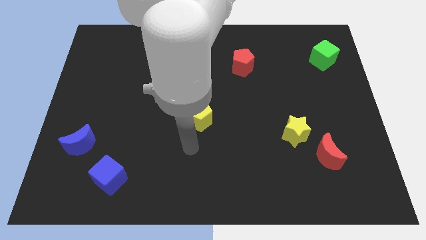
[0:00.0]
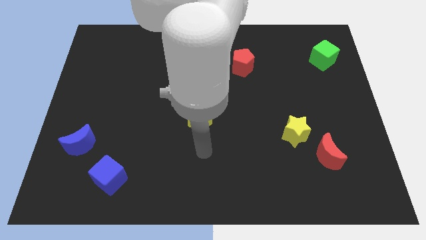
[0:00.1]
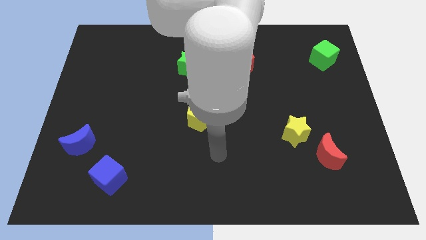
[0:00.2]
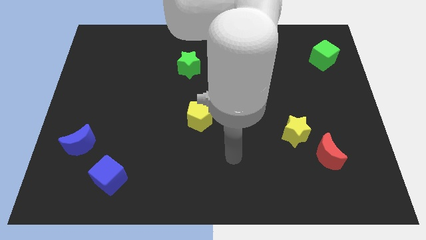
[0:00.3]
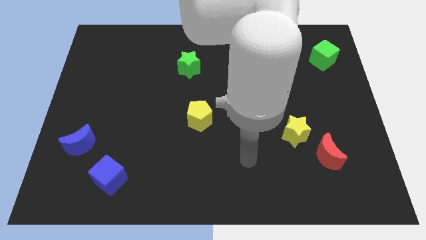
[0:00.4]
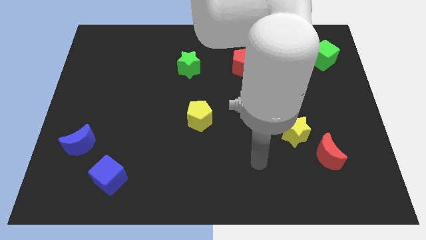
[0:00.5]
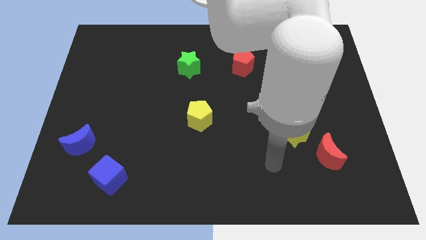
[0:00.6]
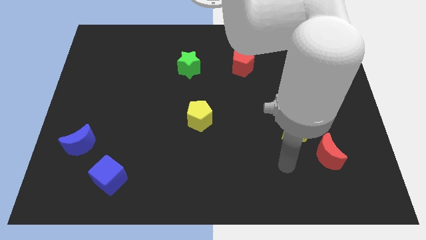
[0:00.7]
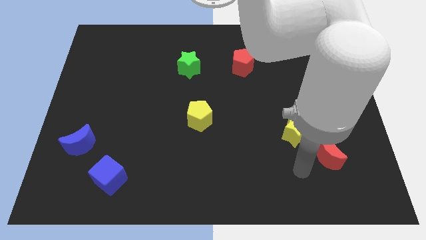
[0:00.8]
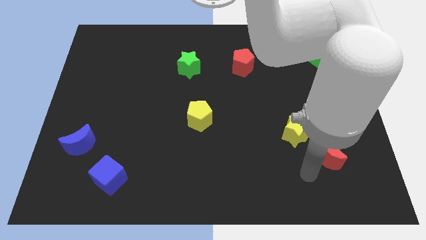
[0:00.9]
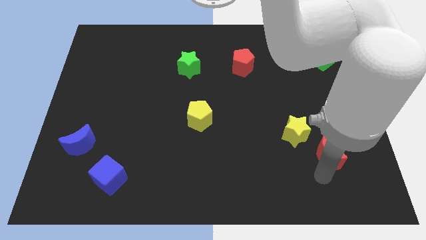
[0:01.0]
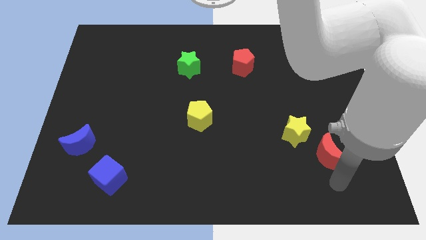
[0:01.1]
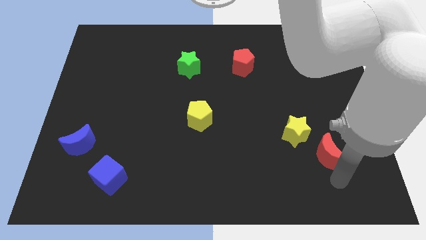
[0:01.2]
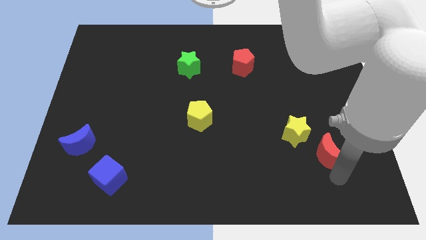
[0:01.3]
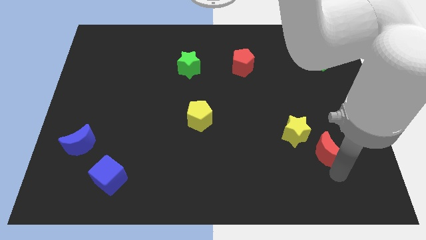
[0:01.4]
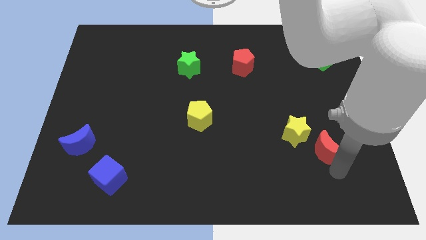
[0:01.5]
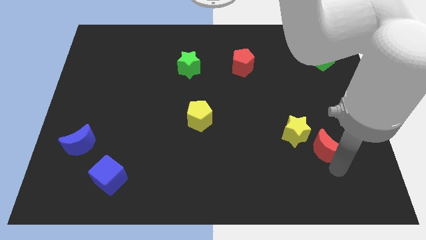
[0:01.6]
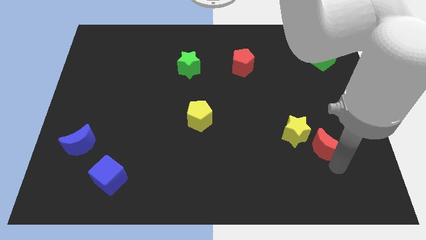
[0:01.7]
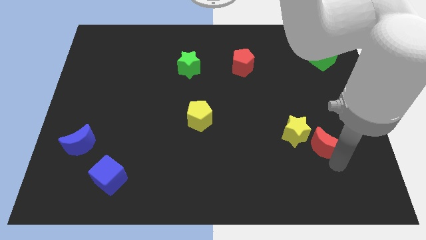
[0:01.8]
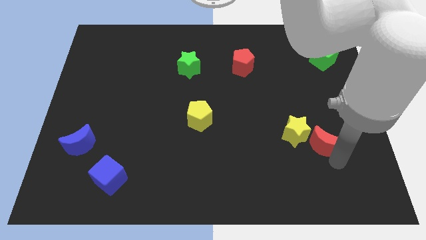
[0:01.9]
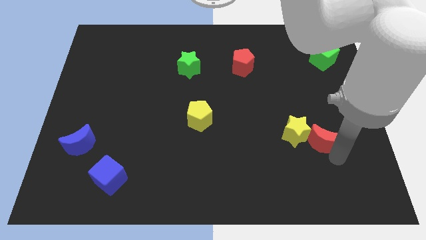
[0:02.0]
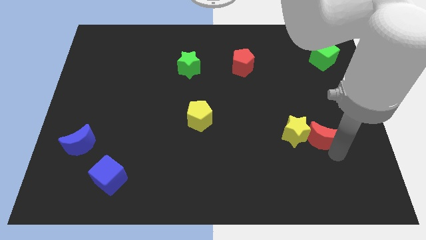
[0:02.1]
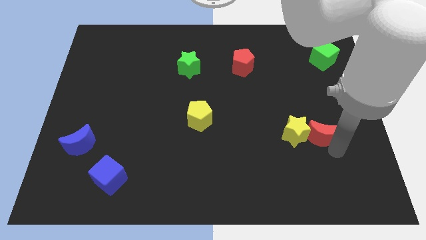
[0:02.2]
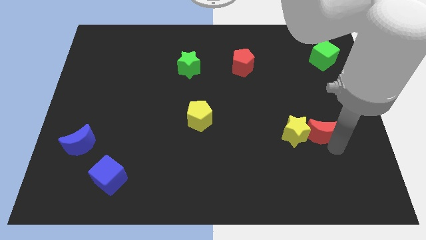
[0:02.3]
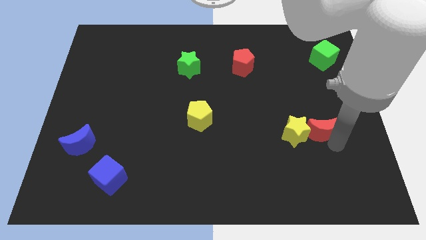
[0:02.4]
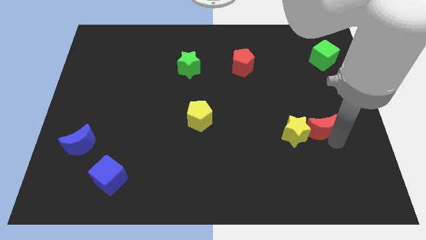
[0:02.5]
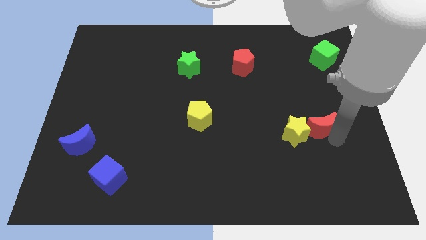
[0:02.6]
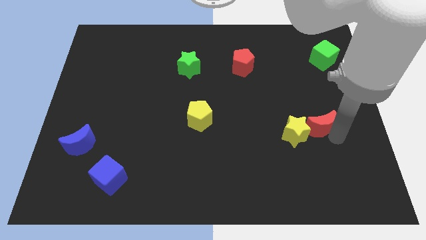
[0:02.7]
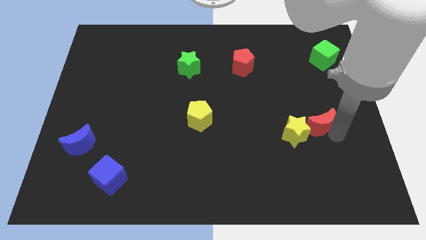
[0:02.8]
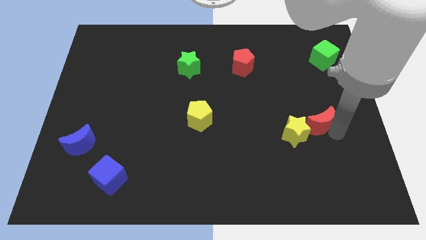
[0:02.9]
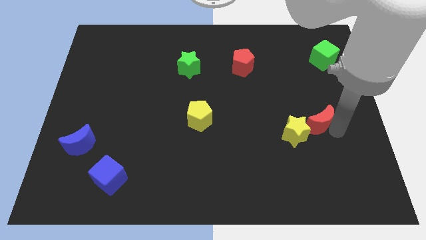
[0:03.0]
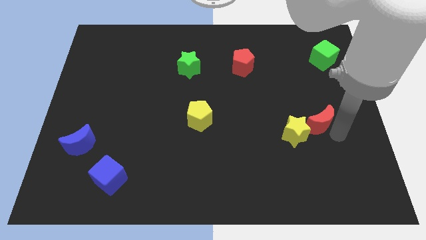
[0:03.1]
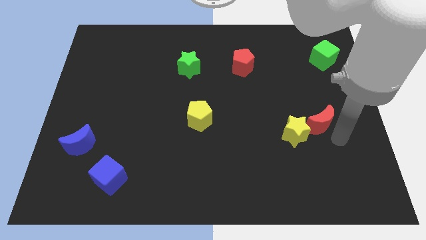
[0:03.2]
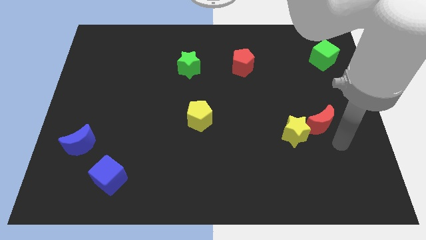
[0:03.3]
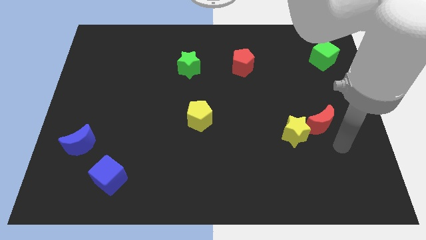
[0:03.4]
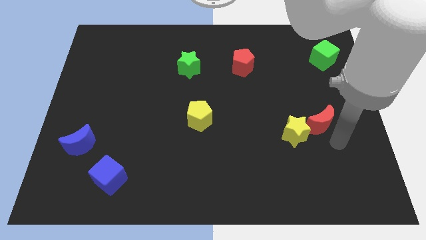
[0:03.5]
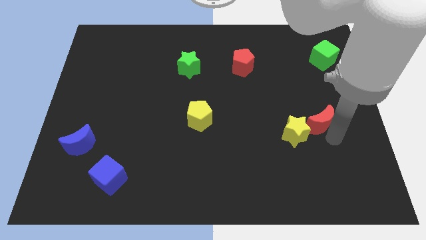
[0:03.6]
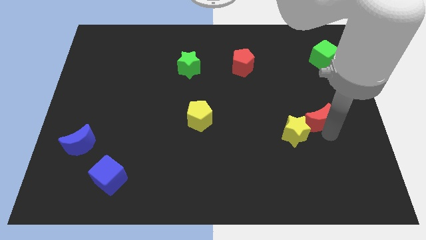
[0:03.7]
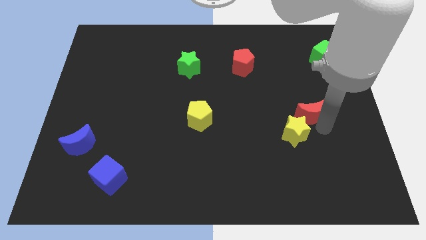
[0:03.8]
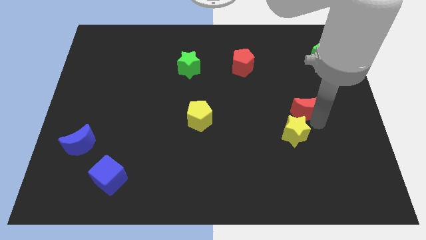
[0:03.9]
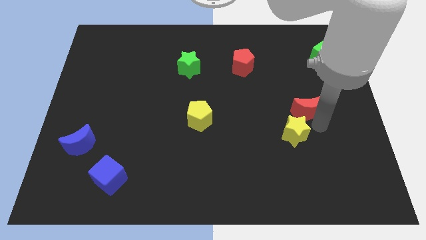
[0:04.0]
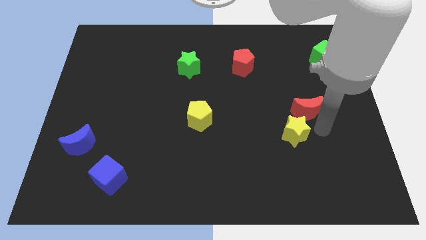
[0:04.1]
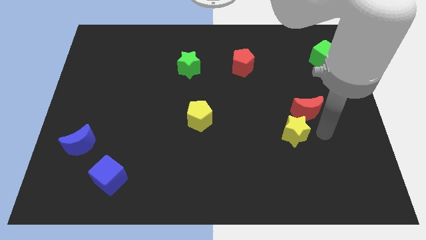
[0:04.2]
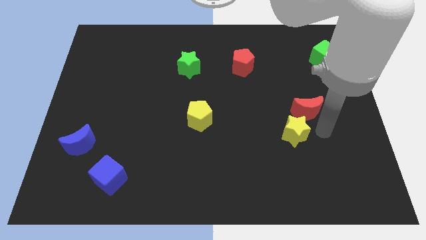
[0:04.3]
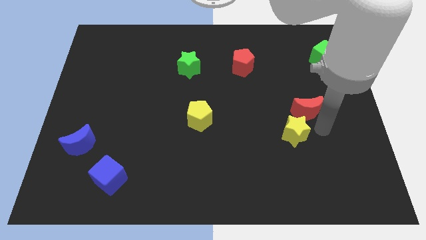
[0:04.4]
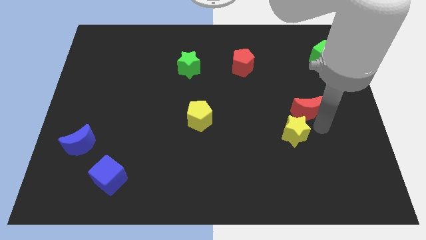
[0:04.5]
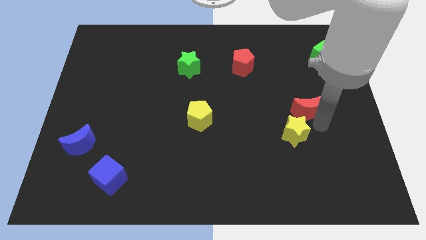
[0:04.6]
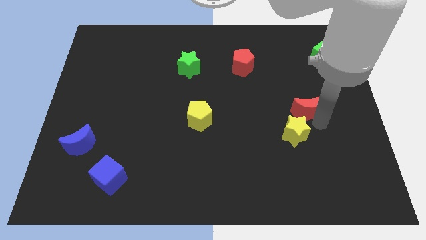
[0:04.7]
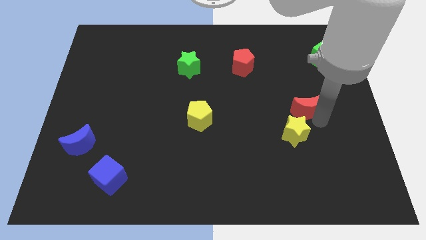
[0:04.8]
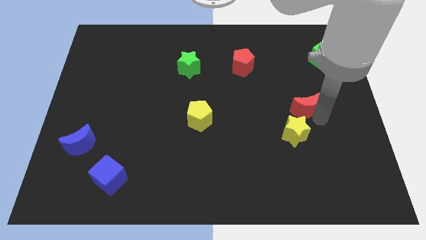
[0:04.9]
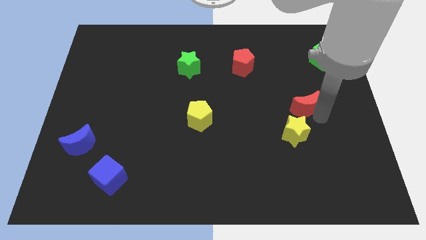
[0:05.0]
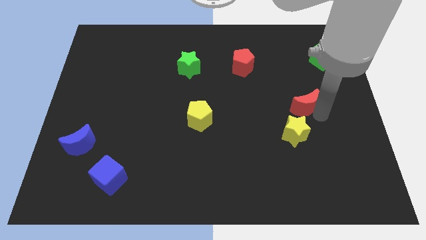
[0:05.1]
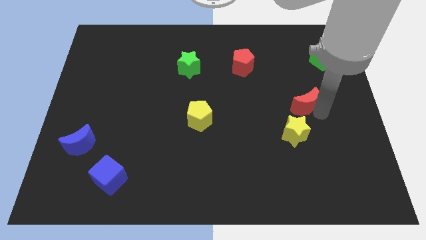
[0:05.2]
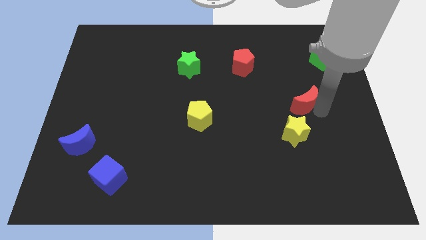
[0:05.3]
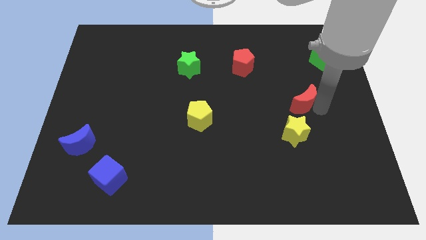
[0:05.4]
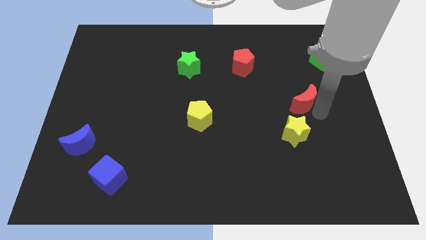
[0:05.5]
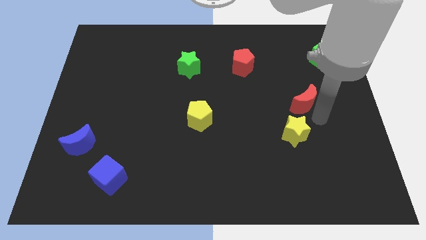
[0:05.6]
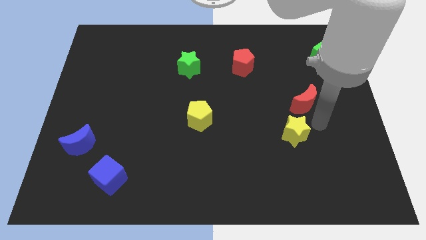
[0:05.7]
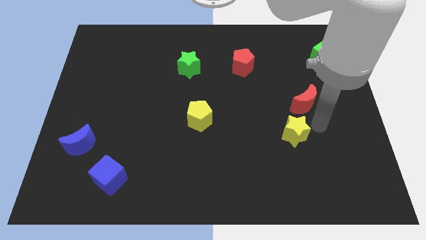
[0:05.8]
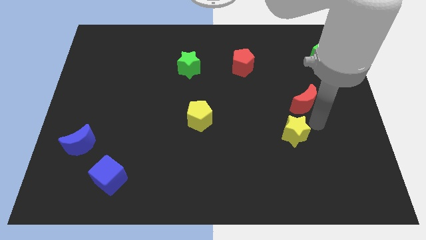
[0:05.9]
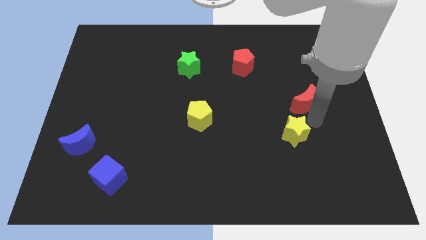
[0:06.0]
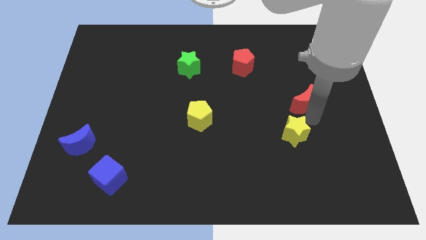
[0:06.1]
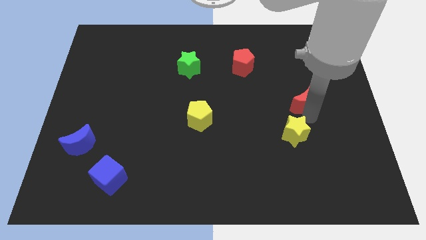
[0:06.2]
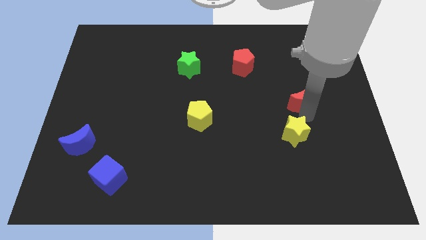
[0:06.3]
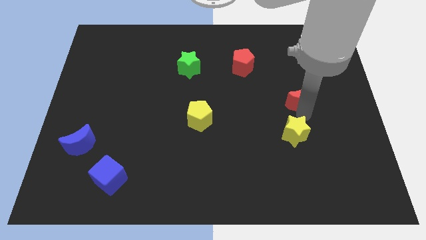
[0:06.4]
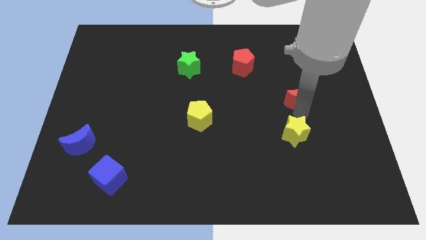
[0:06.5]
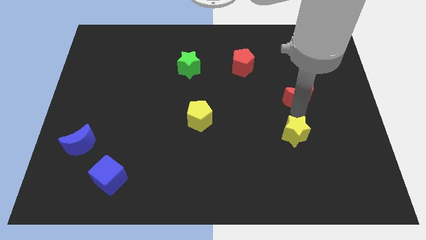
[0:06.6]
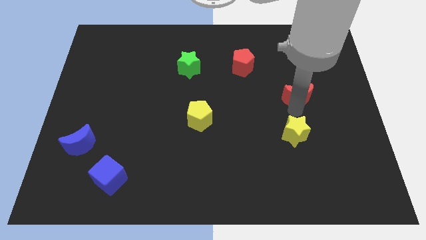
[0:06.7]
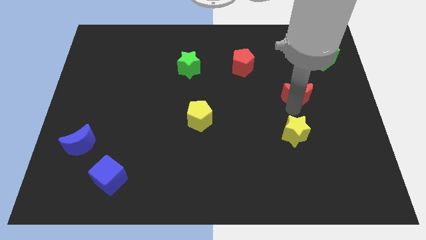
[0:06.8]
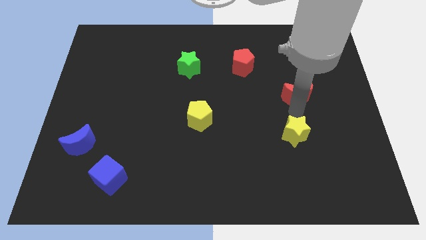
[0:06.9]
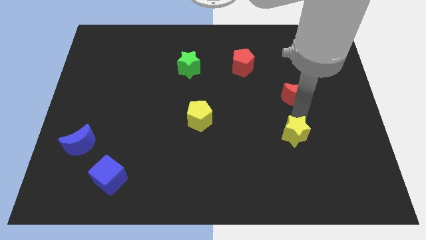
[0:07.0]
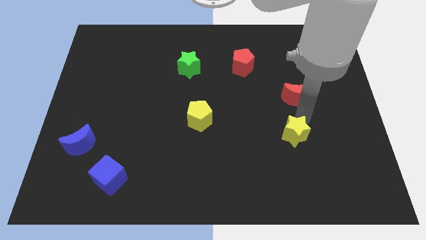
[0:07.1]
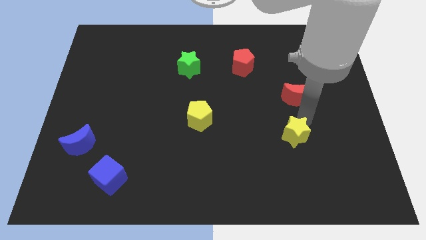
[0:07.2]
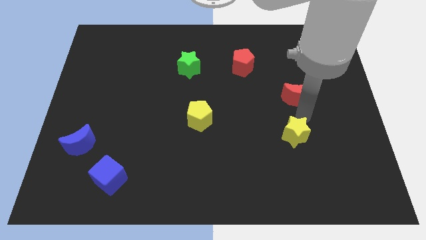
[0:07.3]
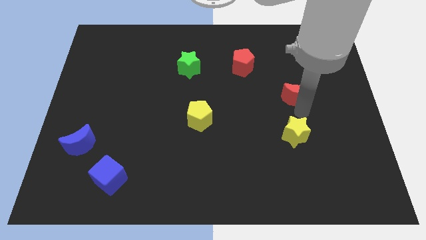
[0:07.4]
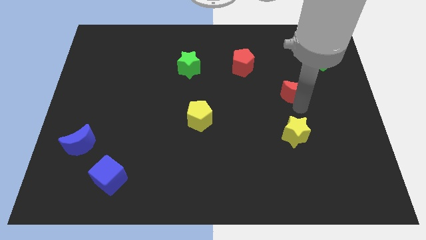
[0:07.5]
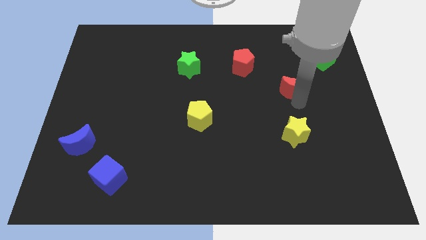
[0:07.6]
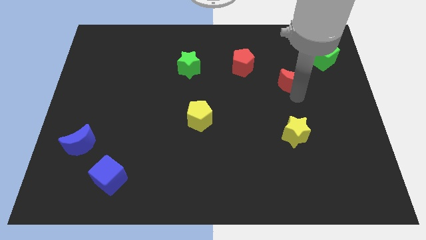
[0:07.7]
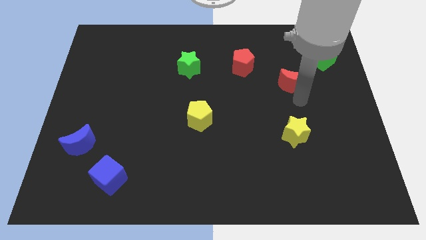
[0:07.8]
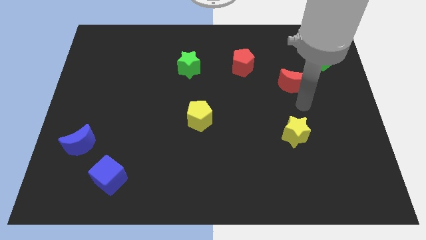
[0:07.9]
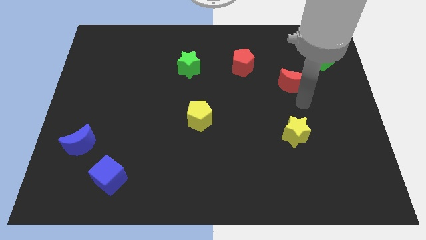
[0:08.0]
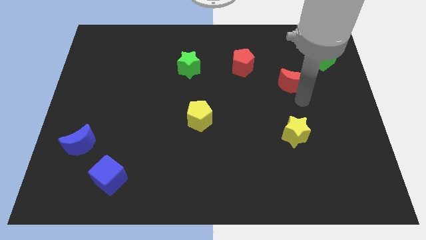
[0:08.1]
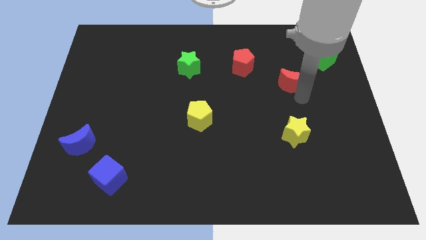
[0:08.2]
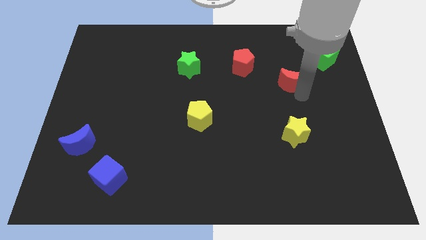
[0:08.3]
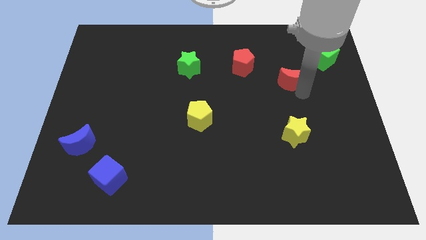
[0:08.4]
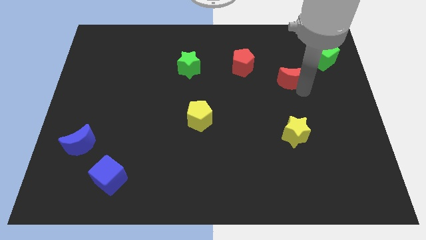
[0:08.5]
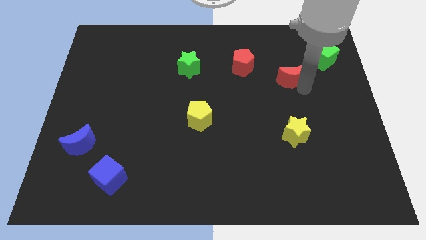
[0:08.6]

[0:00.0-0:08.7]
move the red moon just right of the red pentagon
